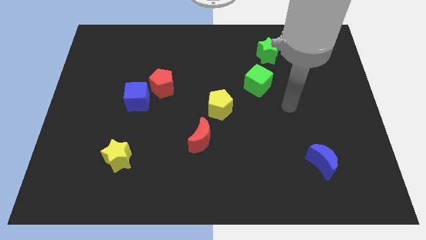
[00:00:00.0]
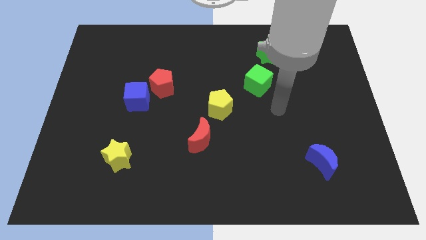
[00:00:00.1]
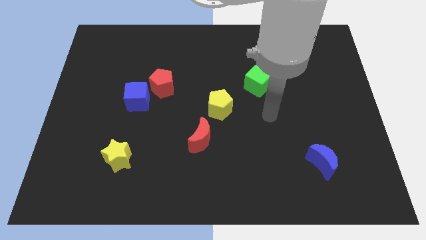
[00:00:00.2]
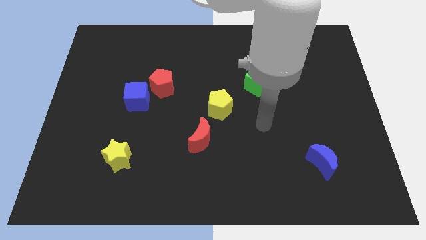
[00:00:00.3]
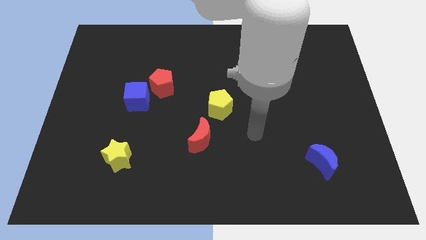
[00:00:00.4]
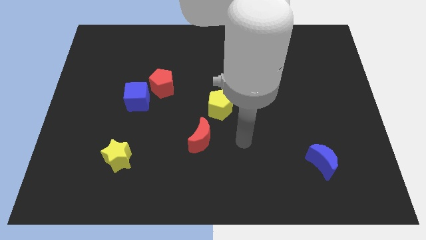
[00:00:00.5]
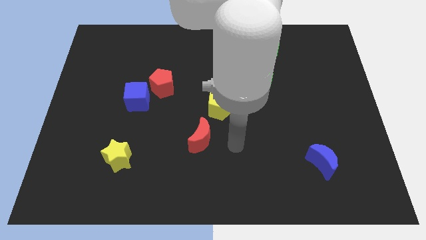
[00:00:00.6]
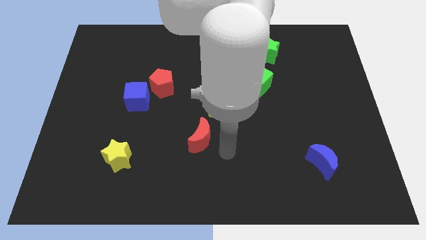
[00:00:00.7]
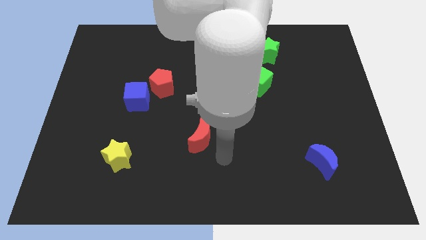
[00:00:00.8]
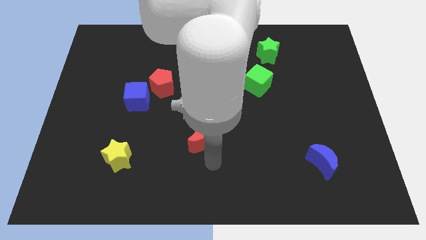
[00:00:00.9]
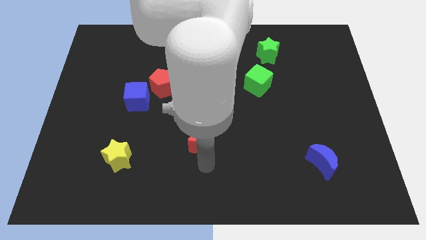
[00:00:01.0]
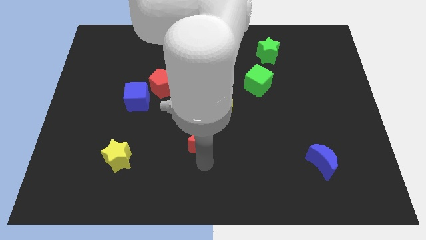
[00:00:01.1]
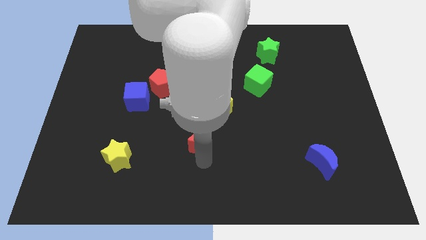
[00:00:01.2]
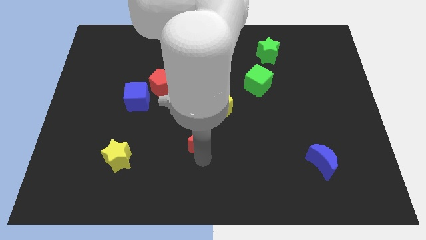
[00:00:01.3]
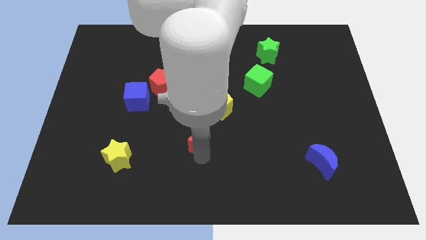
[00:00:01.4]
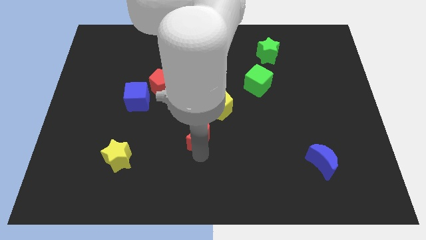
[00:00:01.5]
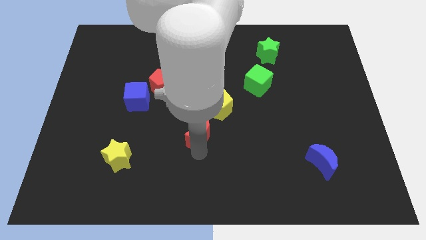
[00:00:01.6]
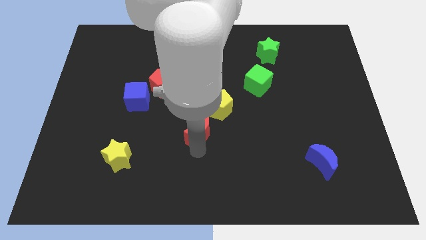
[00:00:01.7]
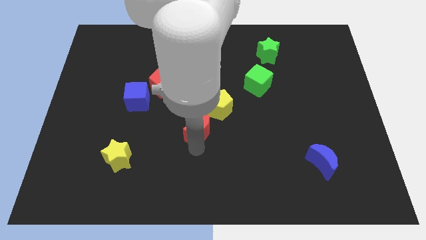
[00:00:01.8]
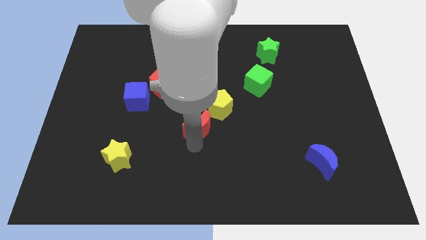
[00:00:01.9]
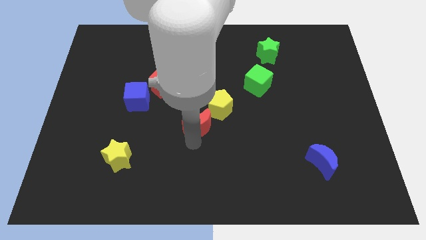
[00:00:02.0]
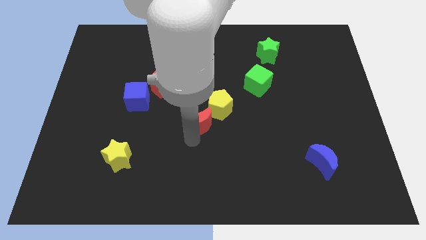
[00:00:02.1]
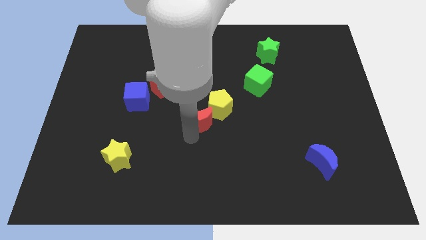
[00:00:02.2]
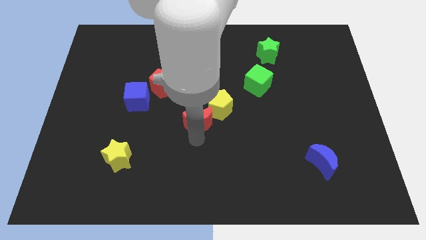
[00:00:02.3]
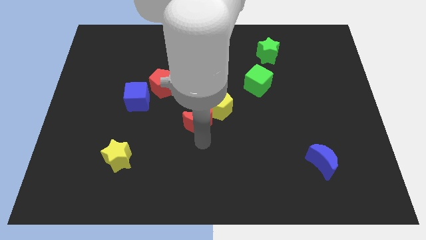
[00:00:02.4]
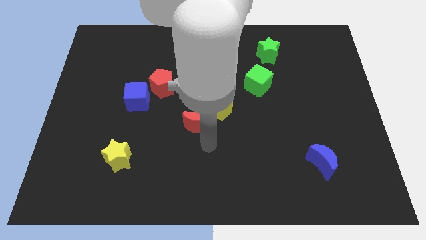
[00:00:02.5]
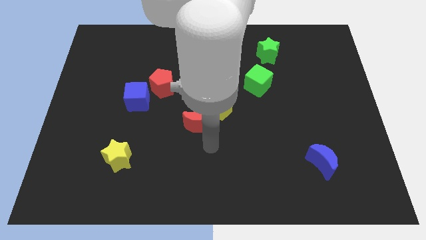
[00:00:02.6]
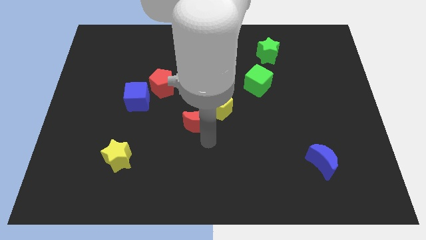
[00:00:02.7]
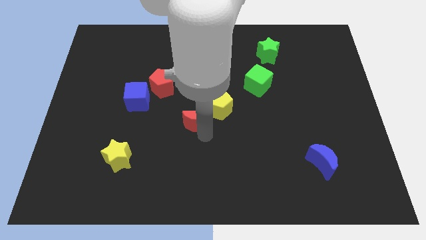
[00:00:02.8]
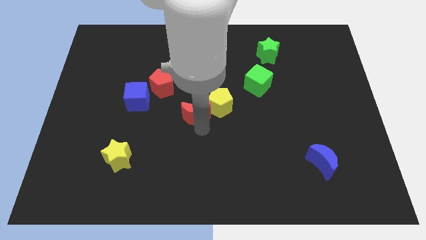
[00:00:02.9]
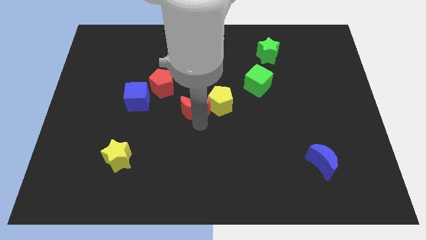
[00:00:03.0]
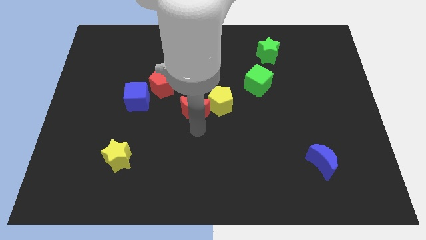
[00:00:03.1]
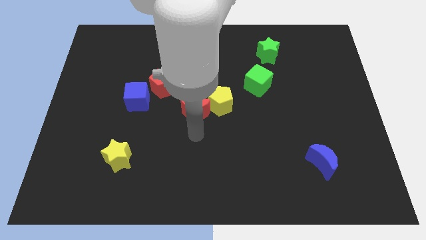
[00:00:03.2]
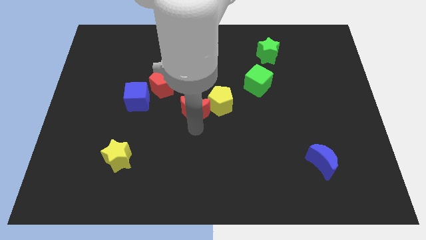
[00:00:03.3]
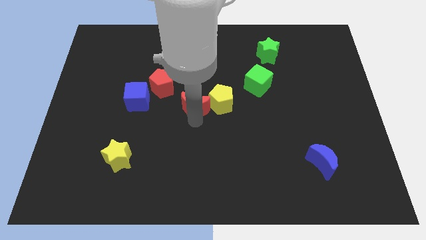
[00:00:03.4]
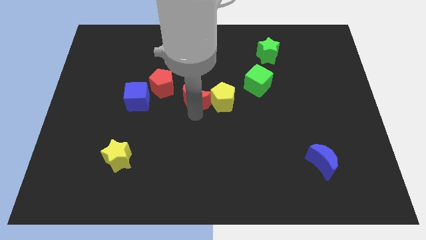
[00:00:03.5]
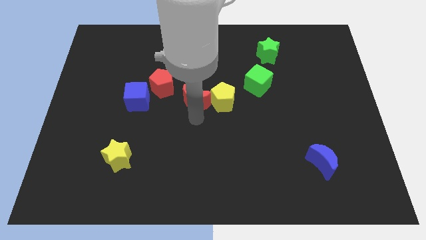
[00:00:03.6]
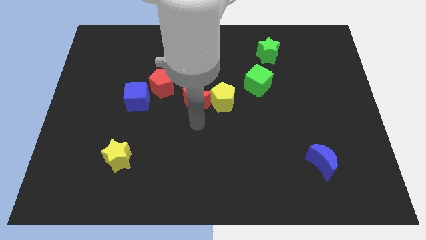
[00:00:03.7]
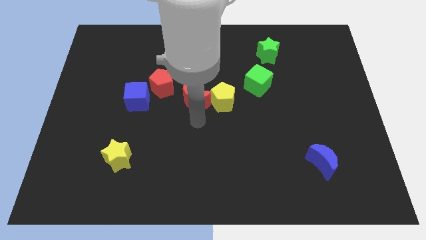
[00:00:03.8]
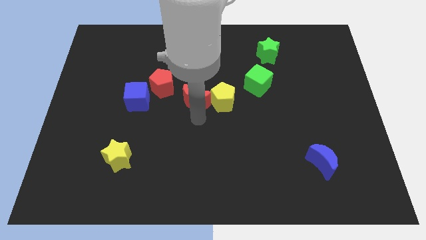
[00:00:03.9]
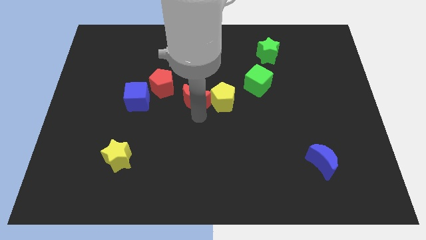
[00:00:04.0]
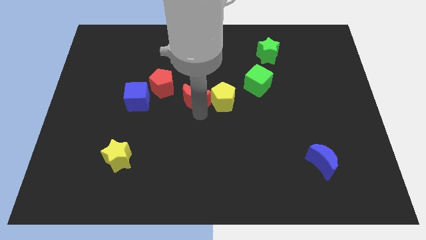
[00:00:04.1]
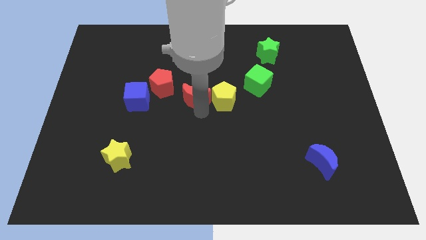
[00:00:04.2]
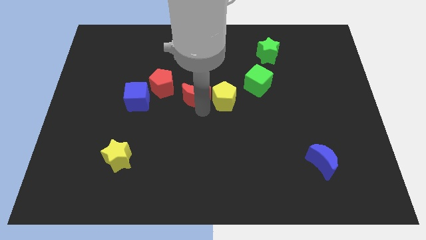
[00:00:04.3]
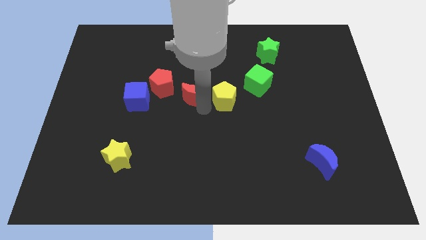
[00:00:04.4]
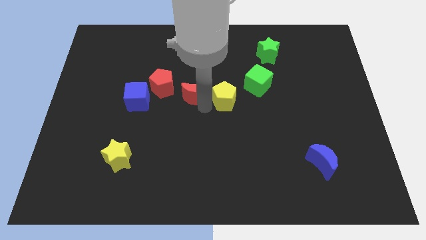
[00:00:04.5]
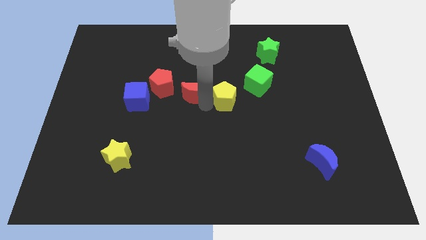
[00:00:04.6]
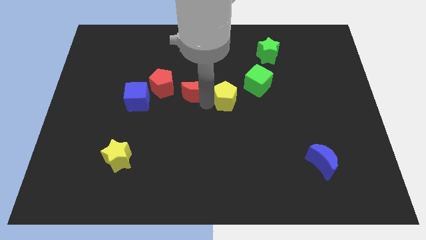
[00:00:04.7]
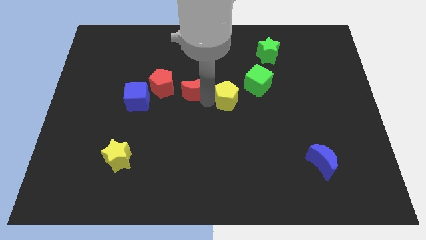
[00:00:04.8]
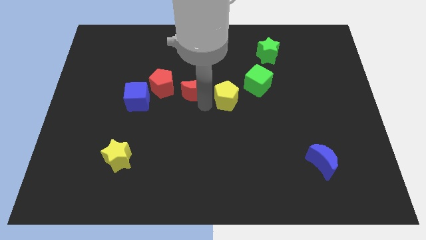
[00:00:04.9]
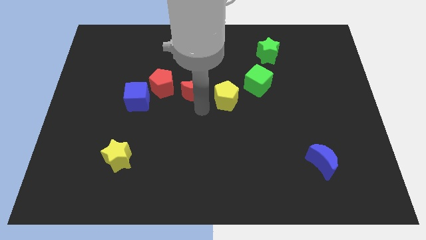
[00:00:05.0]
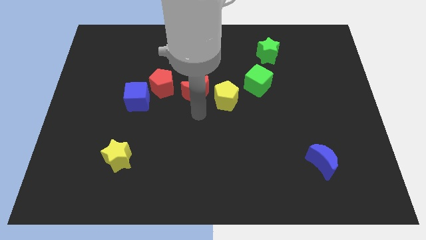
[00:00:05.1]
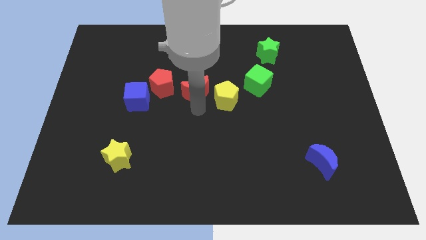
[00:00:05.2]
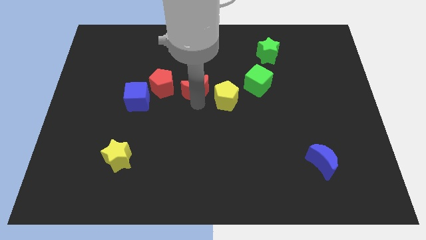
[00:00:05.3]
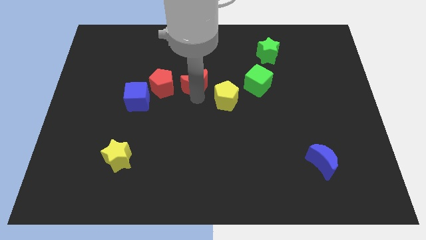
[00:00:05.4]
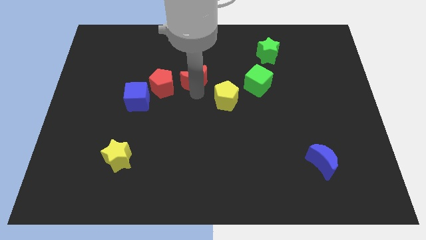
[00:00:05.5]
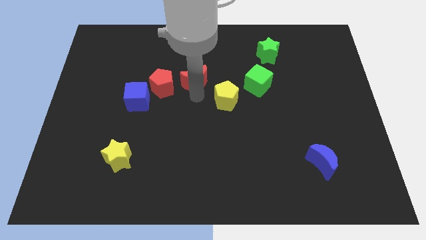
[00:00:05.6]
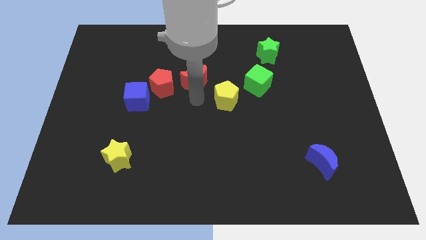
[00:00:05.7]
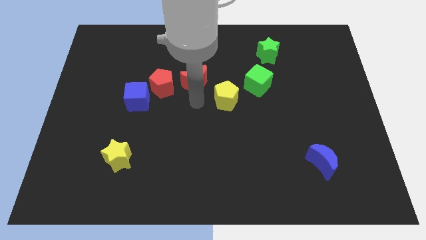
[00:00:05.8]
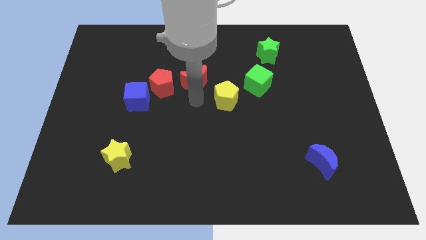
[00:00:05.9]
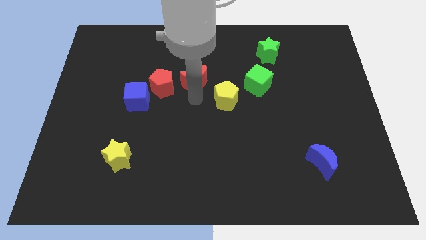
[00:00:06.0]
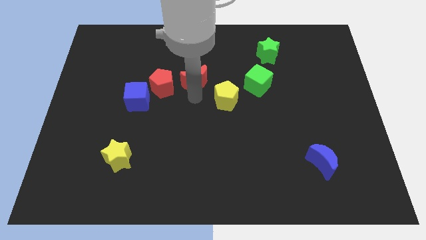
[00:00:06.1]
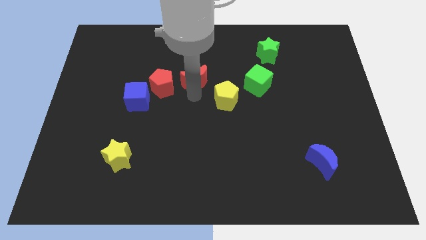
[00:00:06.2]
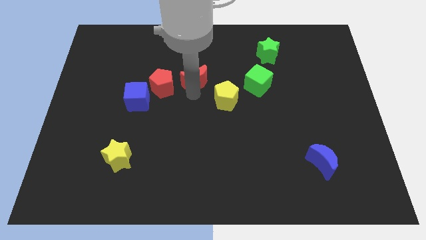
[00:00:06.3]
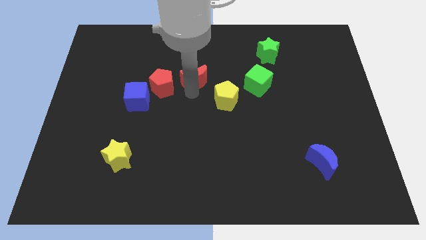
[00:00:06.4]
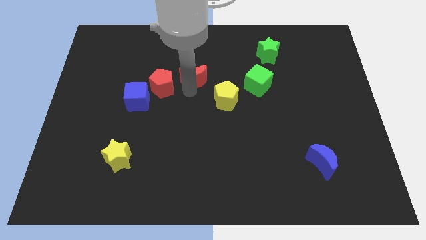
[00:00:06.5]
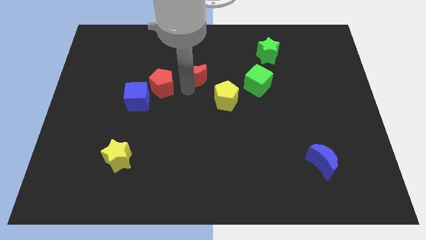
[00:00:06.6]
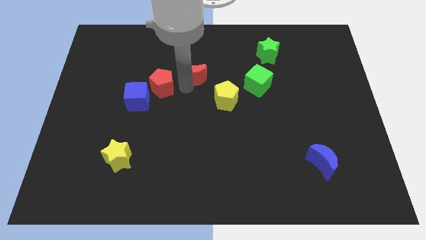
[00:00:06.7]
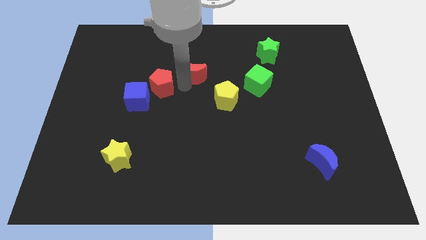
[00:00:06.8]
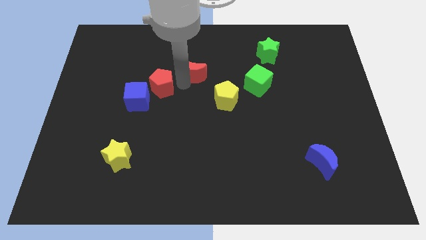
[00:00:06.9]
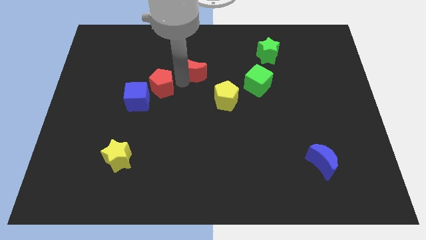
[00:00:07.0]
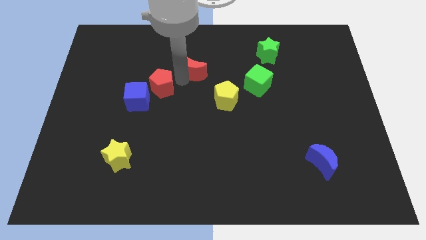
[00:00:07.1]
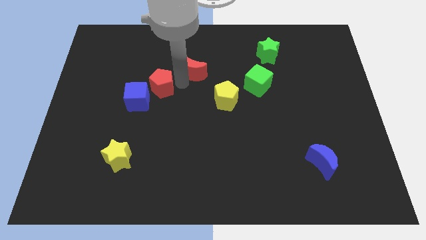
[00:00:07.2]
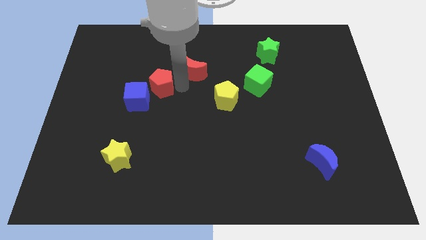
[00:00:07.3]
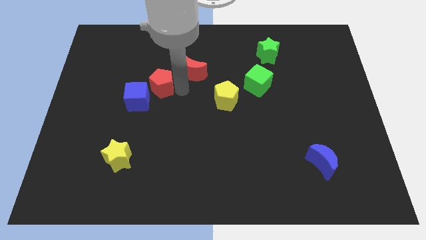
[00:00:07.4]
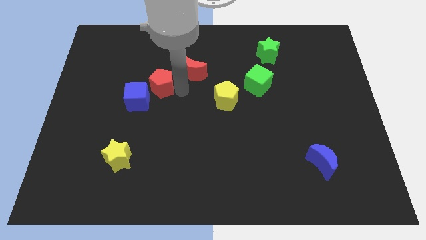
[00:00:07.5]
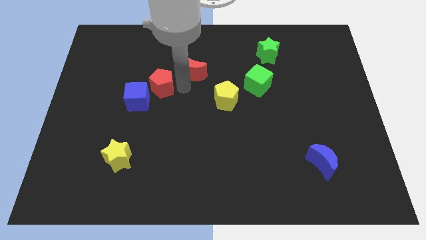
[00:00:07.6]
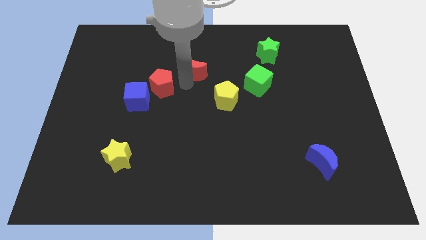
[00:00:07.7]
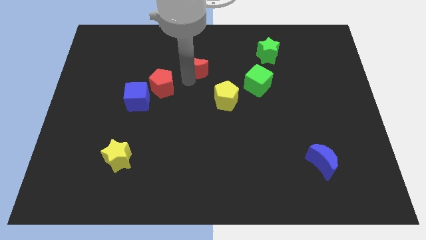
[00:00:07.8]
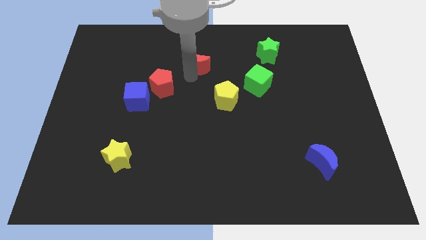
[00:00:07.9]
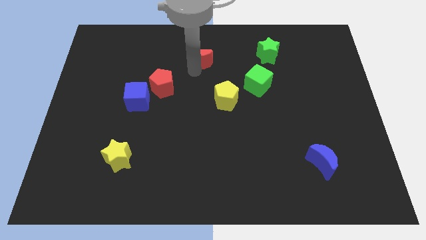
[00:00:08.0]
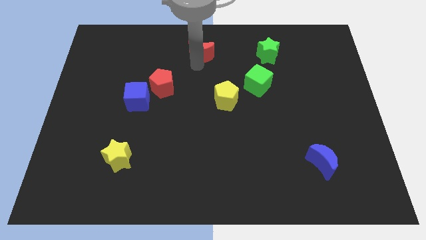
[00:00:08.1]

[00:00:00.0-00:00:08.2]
move the red moon to the top side
